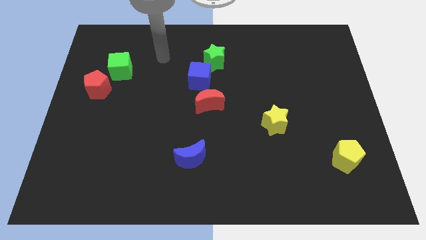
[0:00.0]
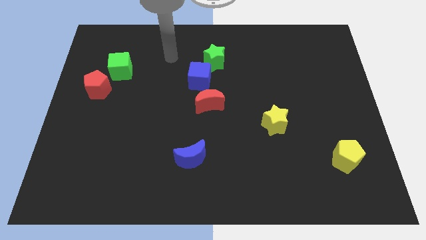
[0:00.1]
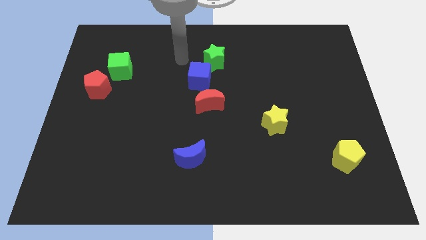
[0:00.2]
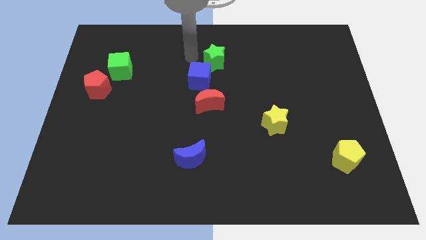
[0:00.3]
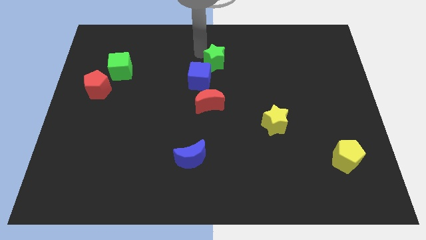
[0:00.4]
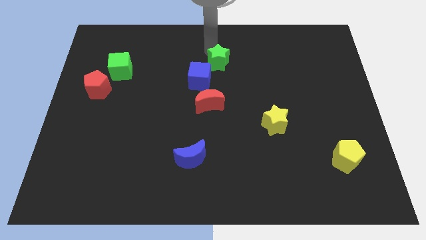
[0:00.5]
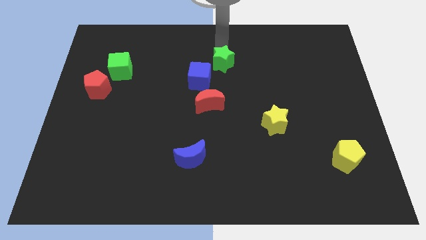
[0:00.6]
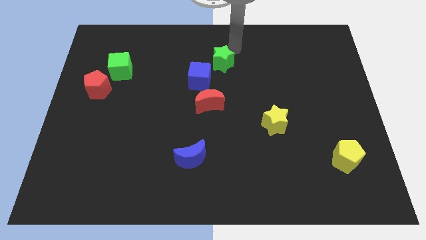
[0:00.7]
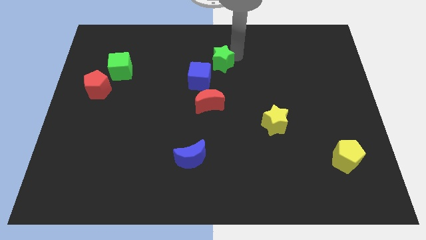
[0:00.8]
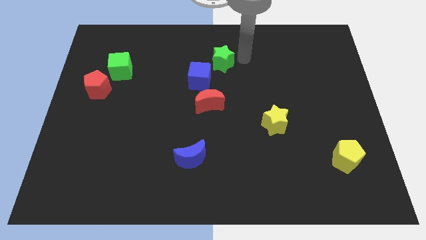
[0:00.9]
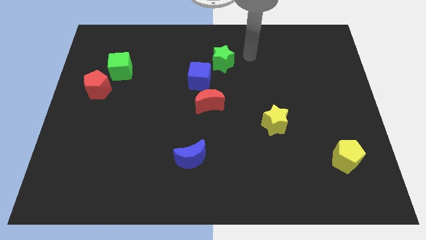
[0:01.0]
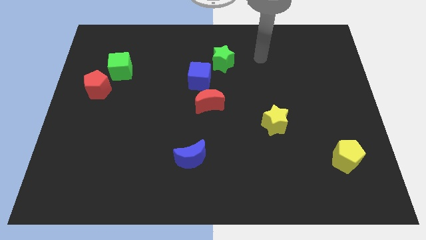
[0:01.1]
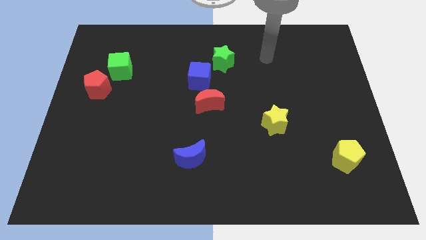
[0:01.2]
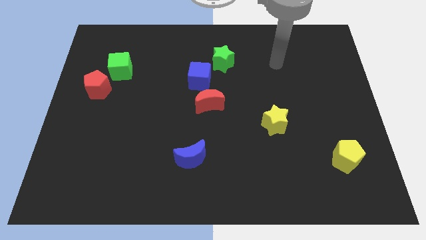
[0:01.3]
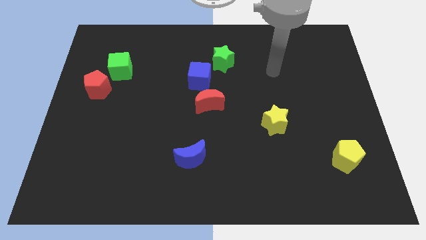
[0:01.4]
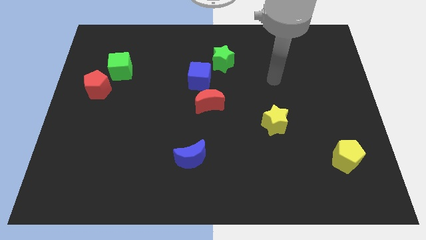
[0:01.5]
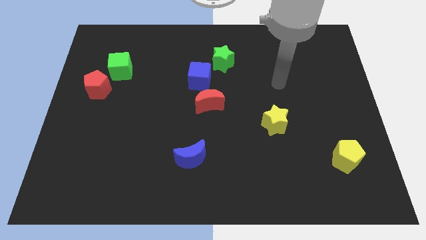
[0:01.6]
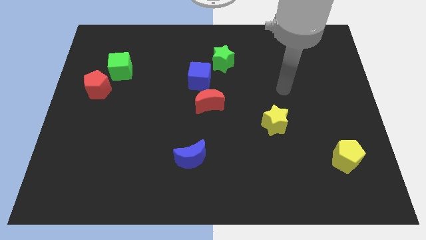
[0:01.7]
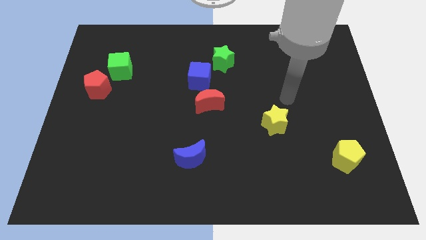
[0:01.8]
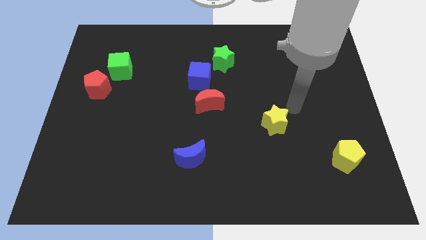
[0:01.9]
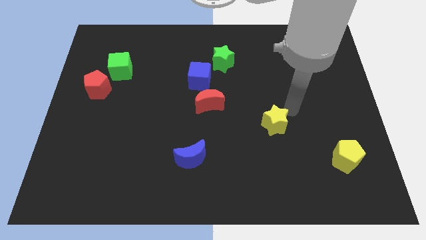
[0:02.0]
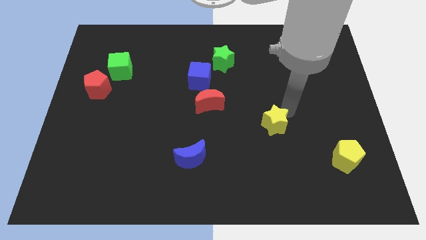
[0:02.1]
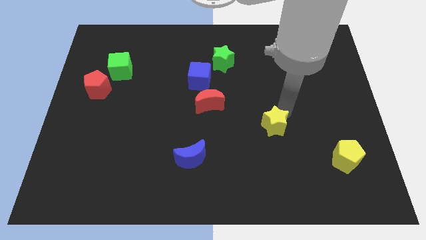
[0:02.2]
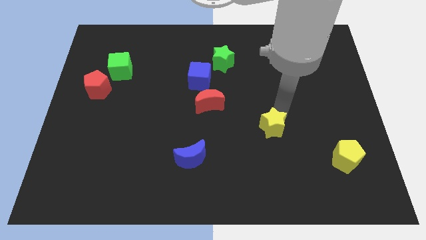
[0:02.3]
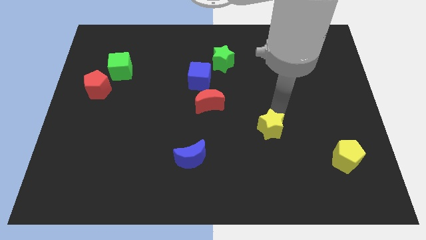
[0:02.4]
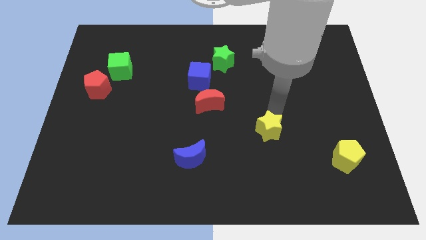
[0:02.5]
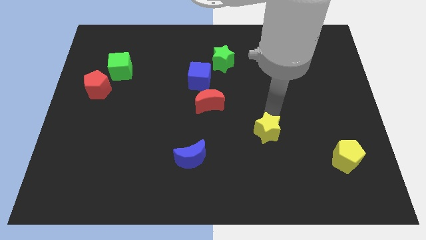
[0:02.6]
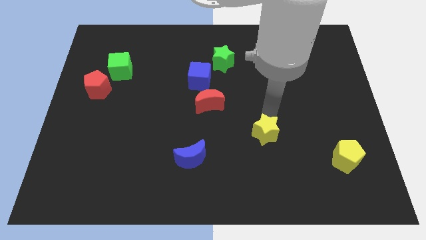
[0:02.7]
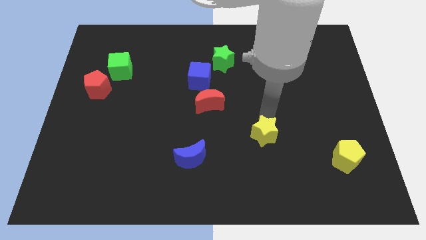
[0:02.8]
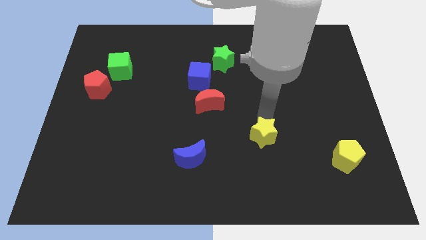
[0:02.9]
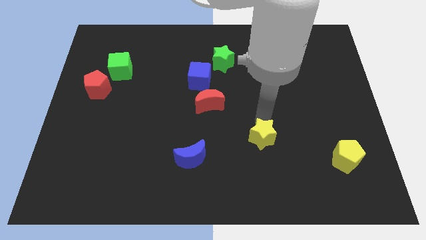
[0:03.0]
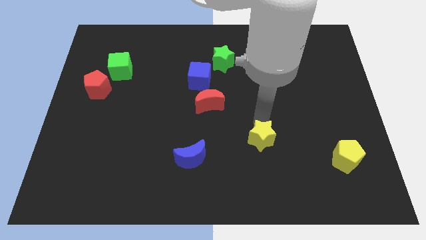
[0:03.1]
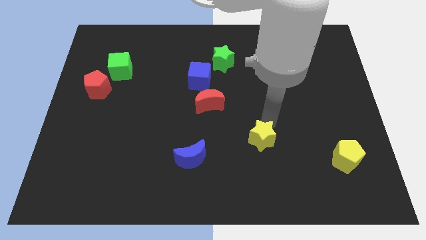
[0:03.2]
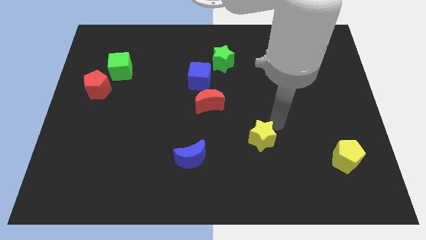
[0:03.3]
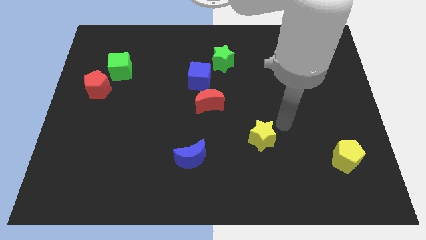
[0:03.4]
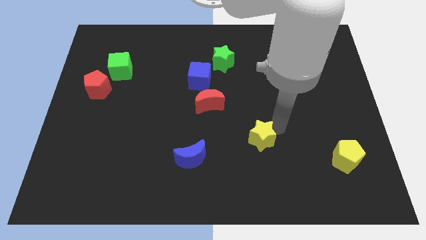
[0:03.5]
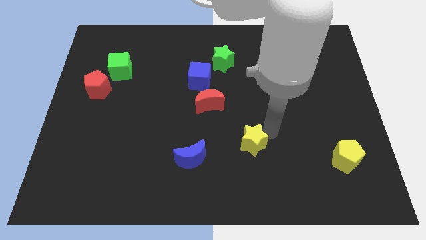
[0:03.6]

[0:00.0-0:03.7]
slightly push the yellow star diagonally downwards and left

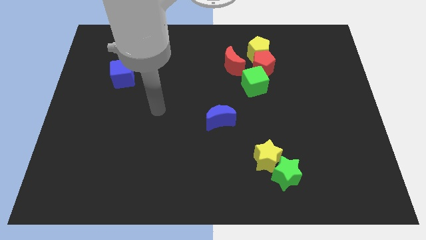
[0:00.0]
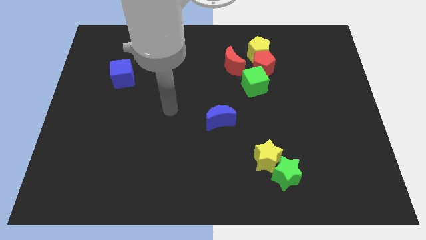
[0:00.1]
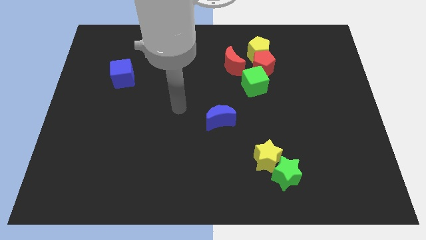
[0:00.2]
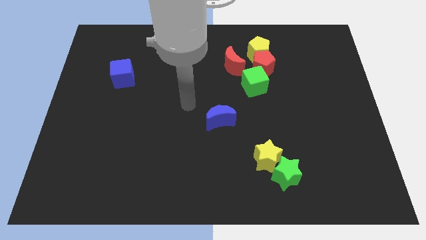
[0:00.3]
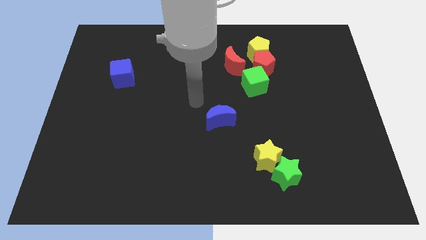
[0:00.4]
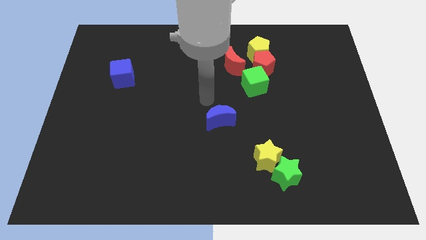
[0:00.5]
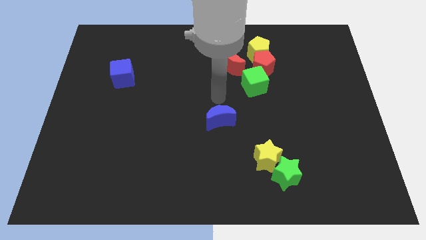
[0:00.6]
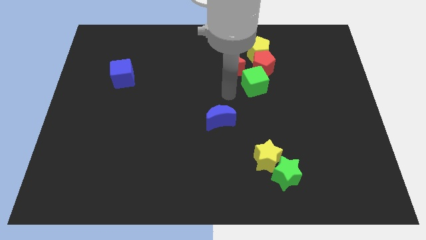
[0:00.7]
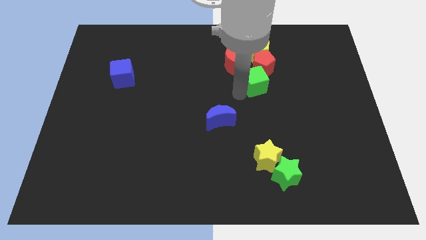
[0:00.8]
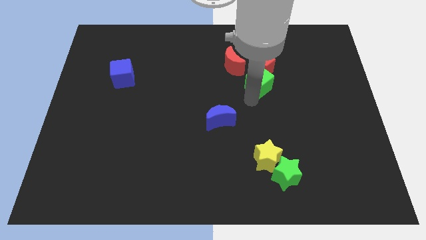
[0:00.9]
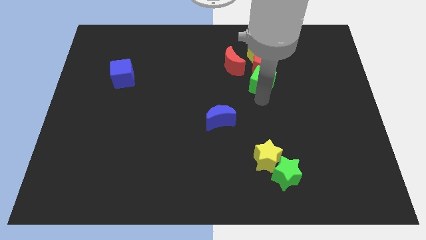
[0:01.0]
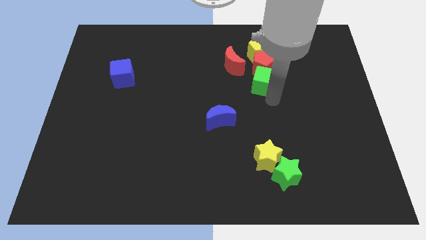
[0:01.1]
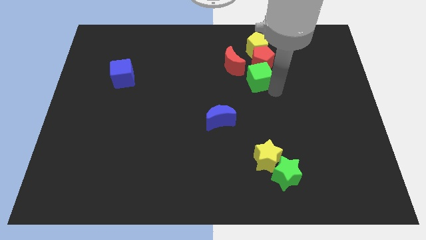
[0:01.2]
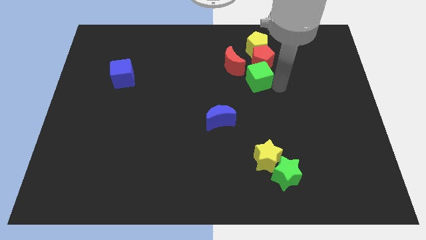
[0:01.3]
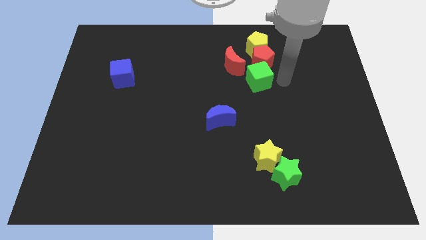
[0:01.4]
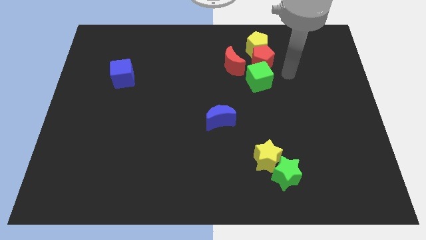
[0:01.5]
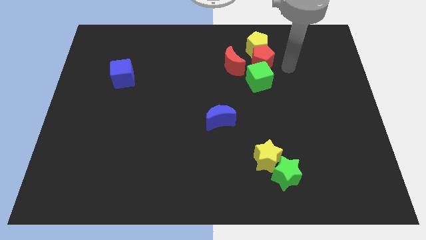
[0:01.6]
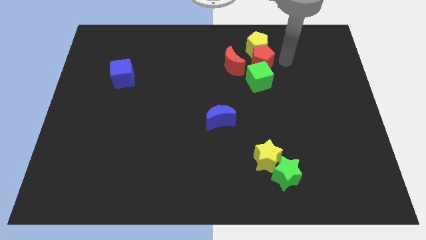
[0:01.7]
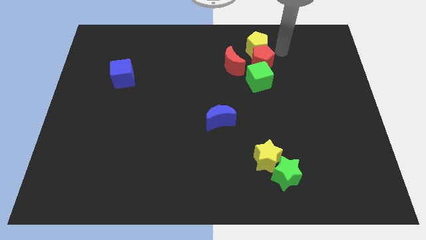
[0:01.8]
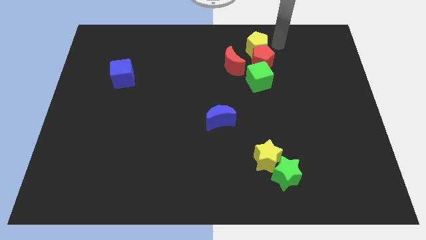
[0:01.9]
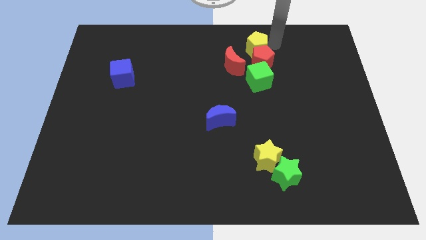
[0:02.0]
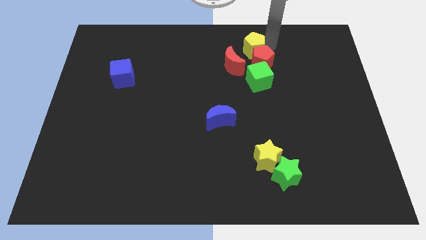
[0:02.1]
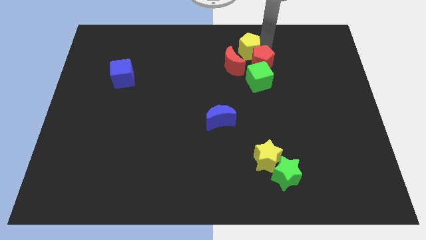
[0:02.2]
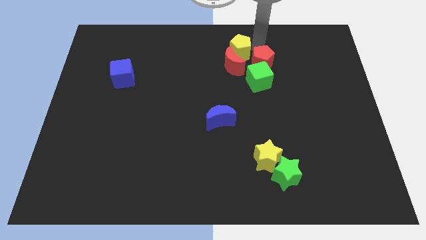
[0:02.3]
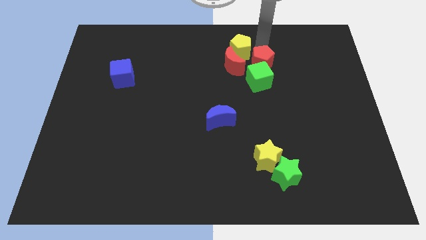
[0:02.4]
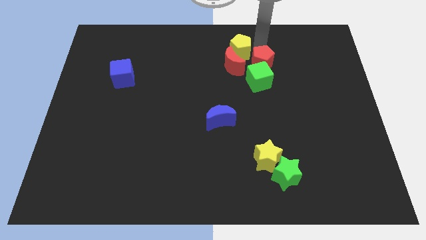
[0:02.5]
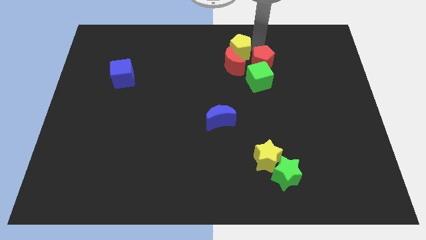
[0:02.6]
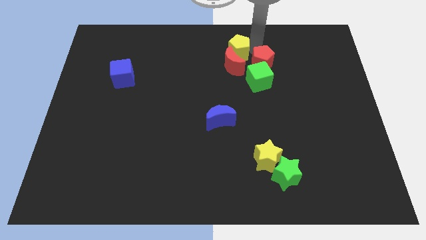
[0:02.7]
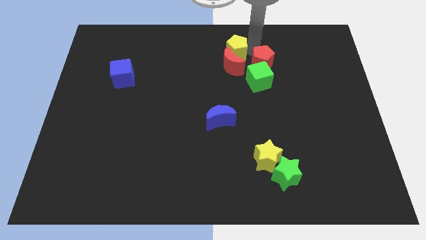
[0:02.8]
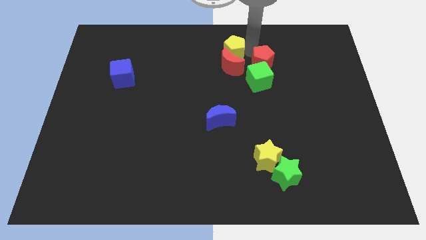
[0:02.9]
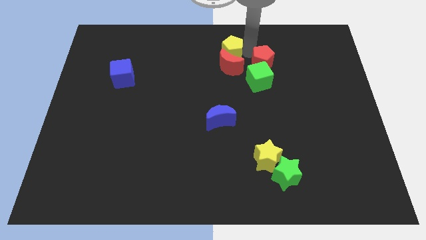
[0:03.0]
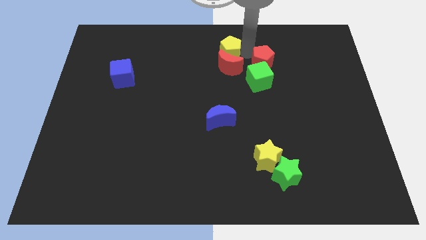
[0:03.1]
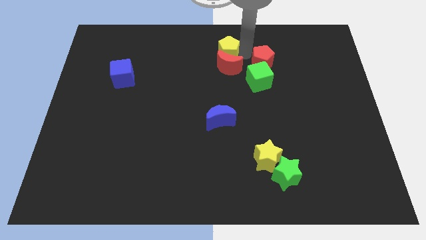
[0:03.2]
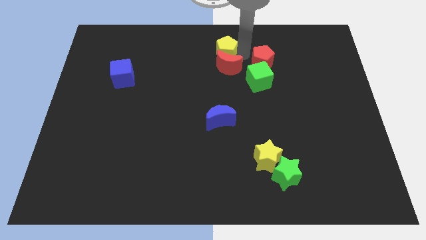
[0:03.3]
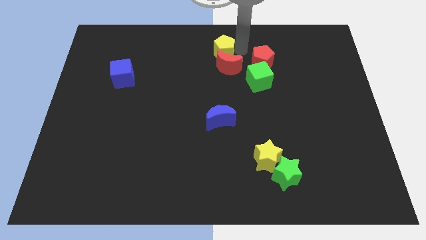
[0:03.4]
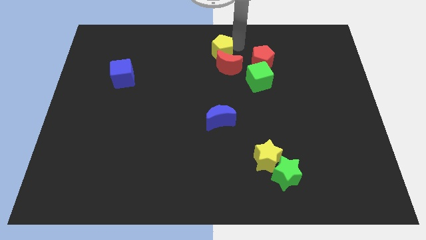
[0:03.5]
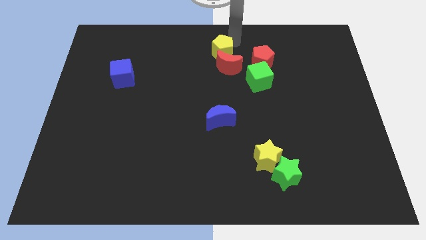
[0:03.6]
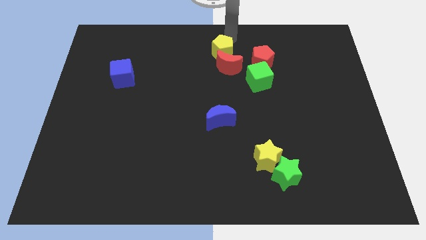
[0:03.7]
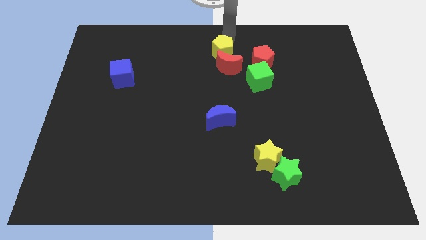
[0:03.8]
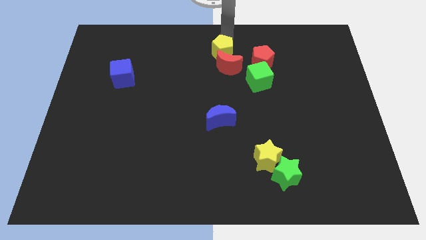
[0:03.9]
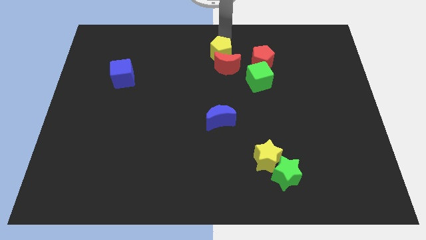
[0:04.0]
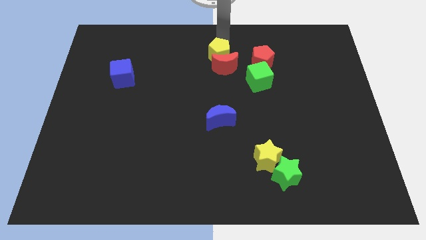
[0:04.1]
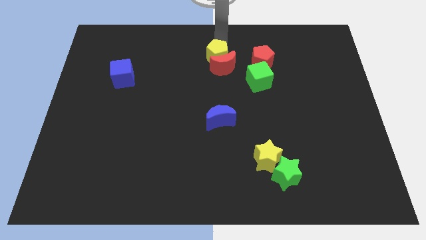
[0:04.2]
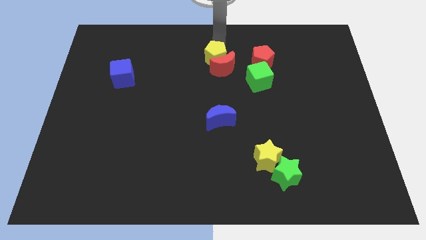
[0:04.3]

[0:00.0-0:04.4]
move the yellow pentagon a little bit down and left
